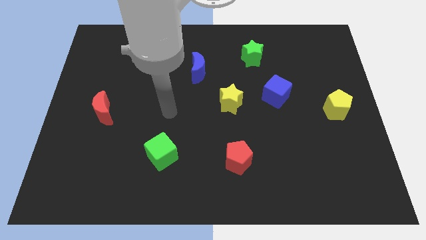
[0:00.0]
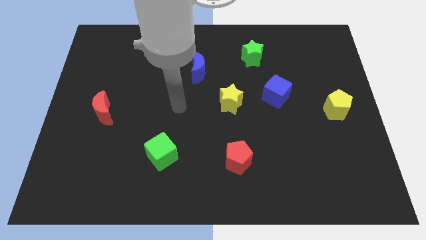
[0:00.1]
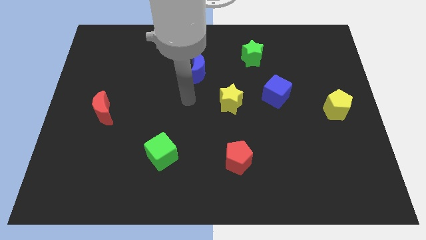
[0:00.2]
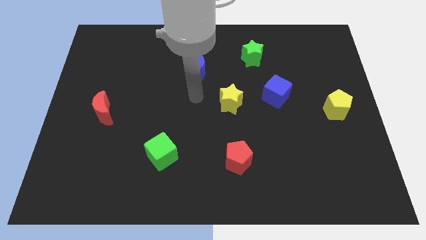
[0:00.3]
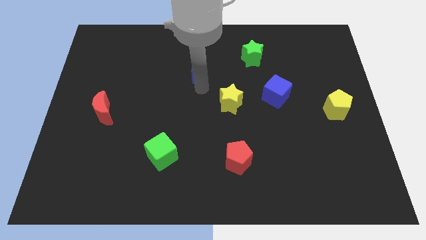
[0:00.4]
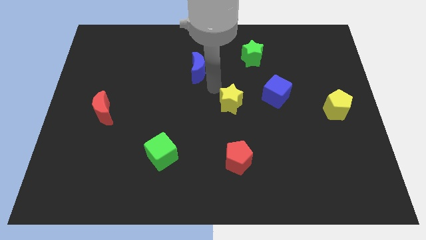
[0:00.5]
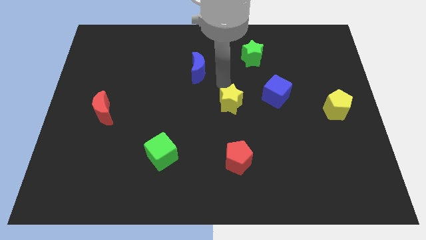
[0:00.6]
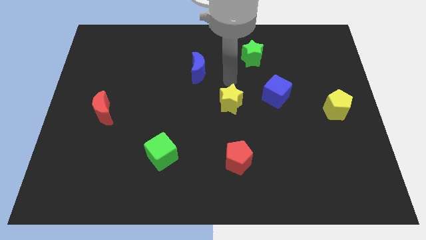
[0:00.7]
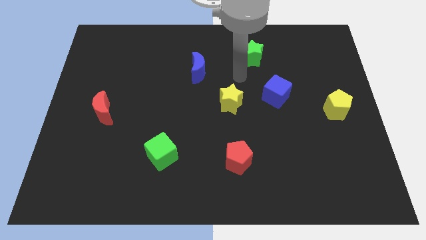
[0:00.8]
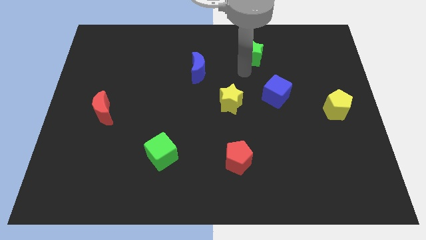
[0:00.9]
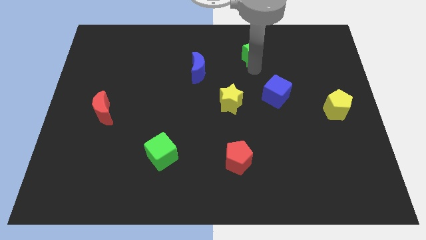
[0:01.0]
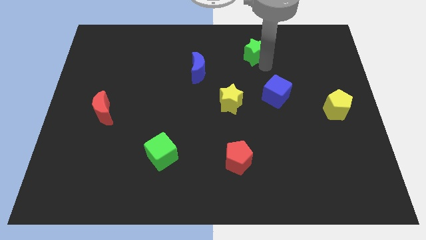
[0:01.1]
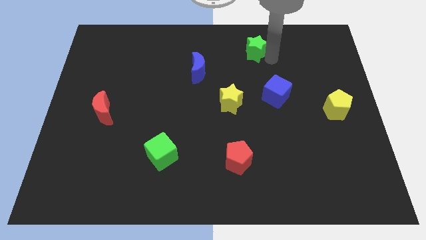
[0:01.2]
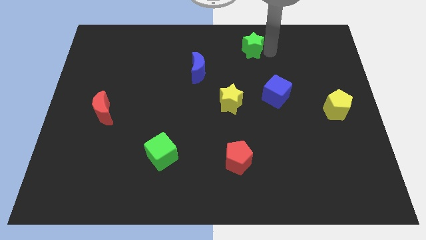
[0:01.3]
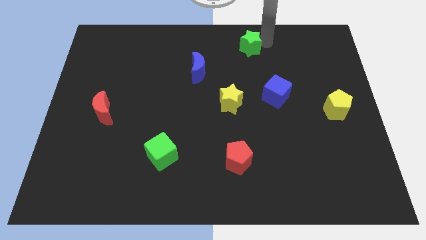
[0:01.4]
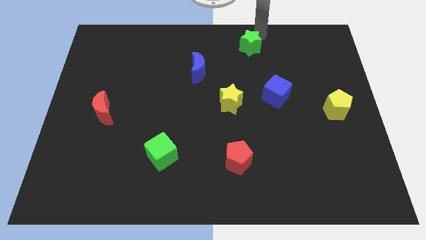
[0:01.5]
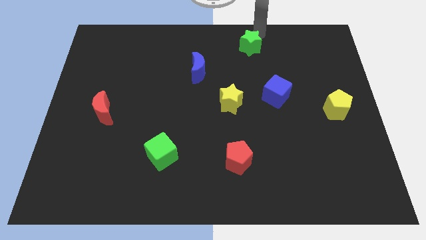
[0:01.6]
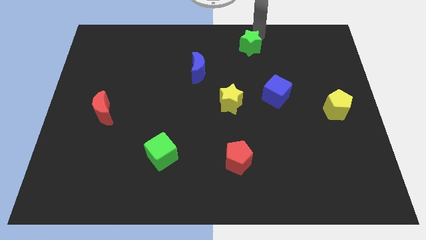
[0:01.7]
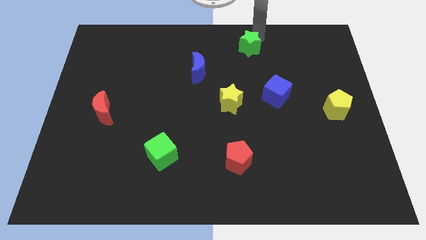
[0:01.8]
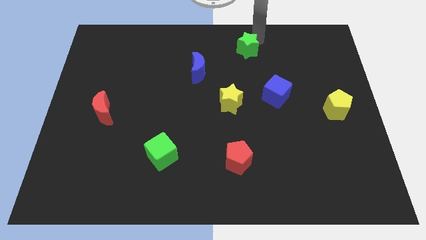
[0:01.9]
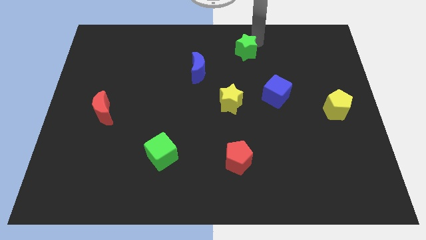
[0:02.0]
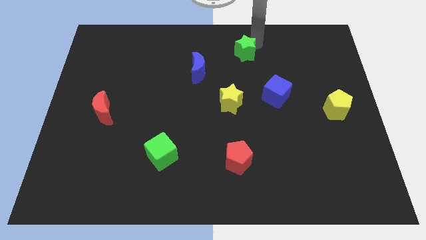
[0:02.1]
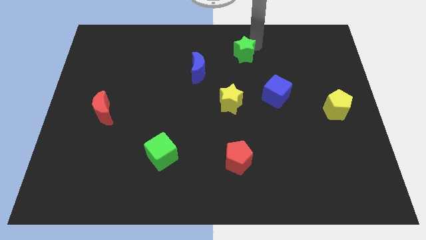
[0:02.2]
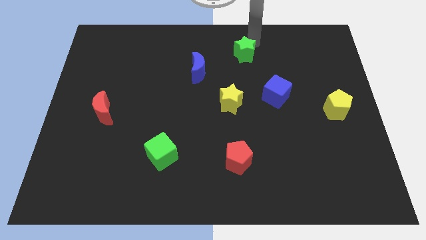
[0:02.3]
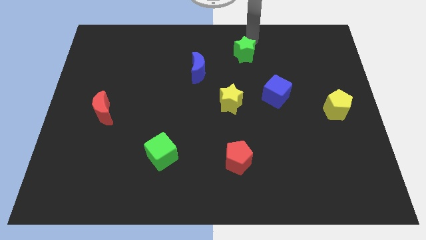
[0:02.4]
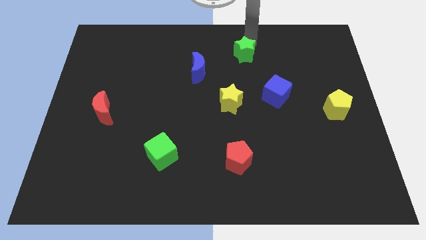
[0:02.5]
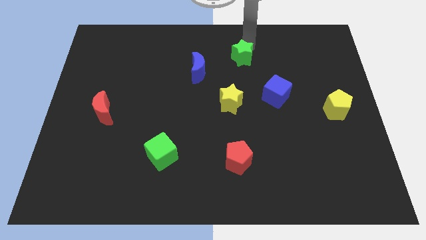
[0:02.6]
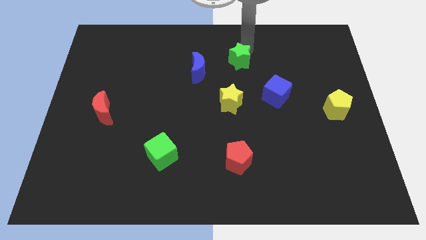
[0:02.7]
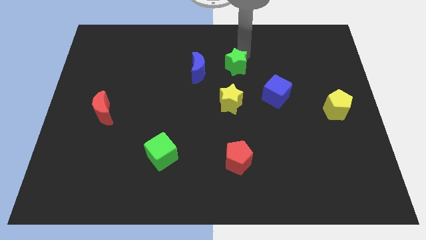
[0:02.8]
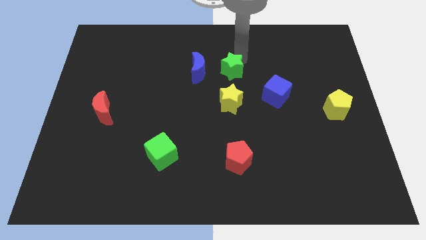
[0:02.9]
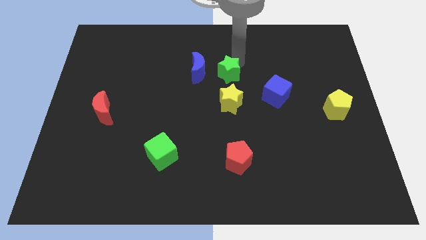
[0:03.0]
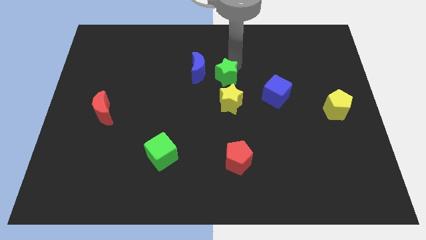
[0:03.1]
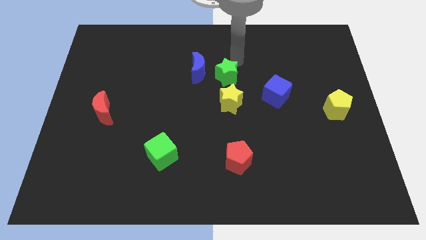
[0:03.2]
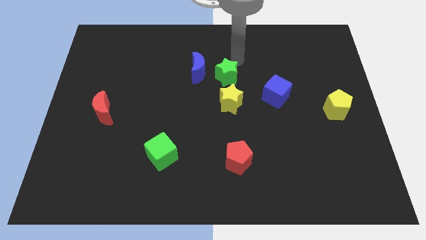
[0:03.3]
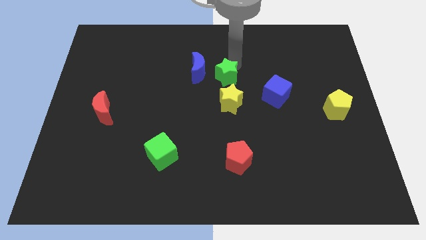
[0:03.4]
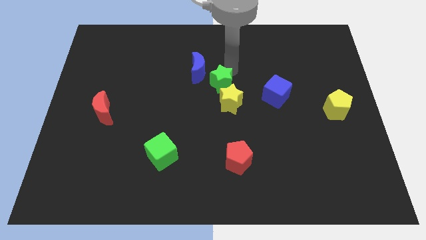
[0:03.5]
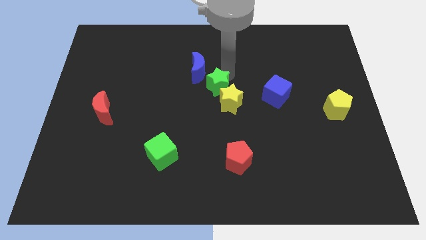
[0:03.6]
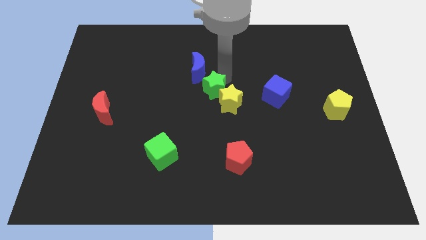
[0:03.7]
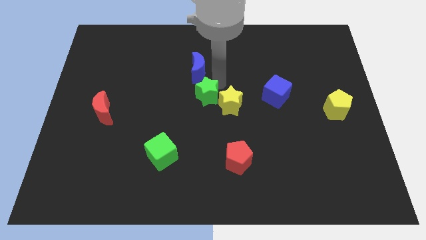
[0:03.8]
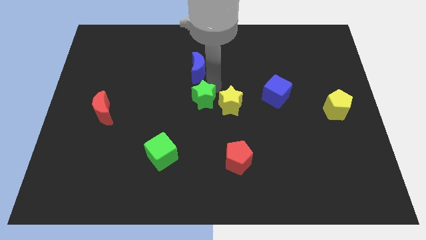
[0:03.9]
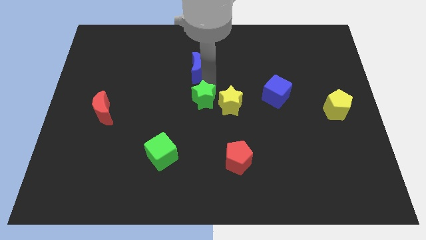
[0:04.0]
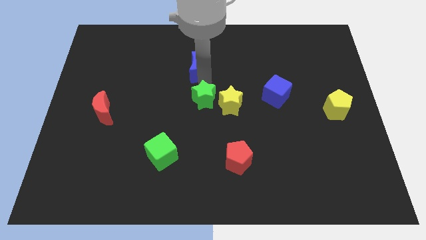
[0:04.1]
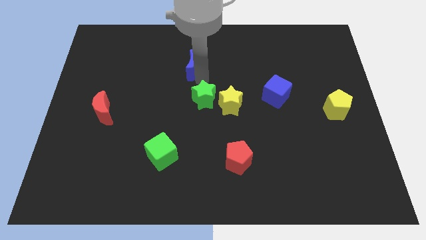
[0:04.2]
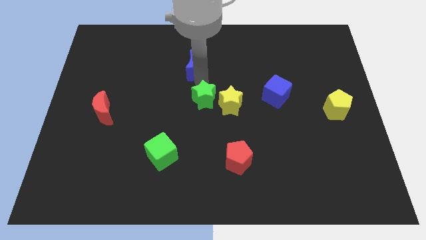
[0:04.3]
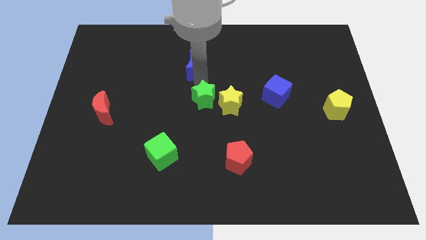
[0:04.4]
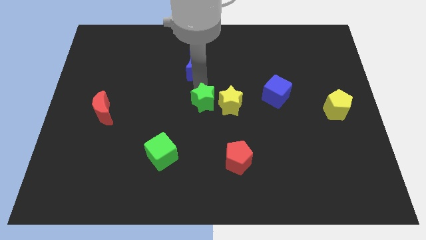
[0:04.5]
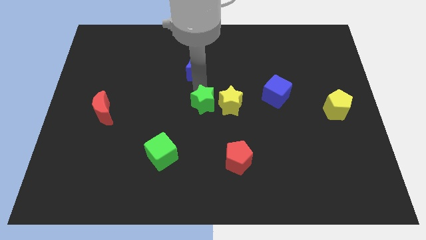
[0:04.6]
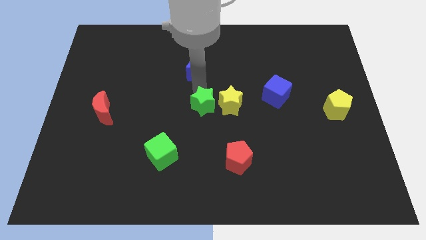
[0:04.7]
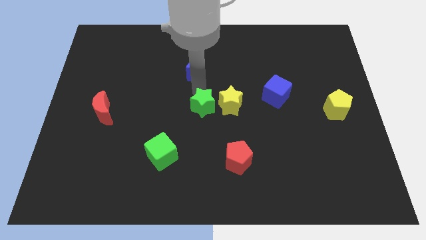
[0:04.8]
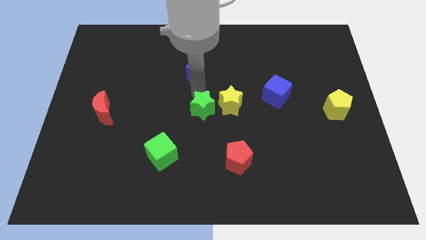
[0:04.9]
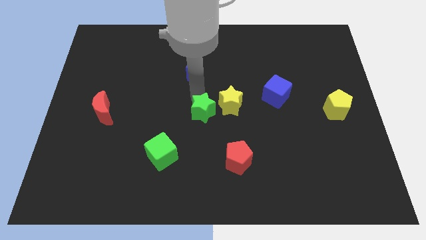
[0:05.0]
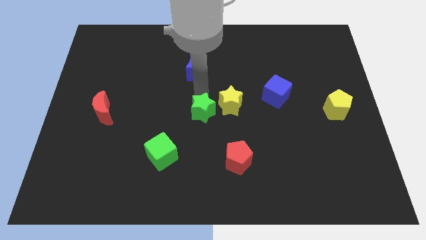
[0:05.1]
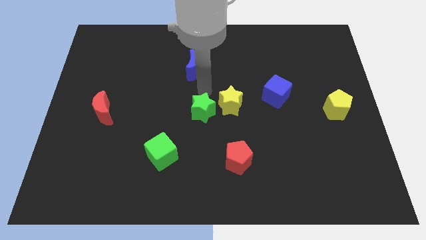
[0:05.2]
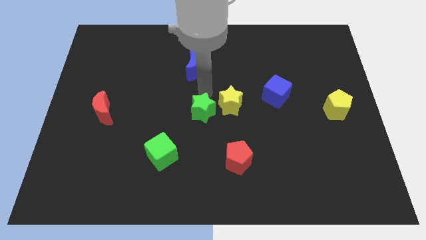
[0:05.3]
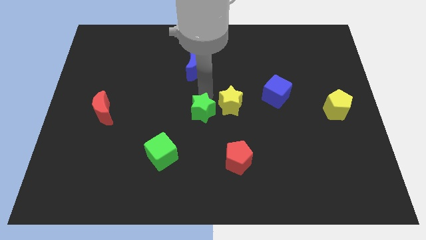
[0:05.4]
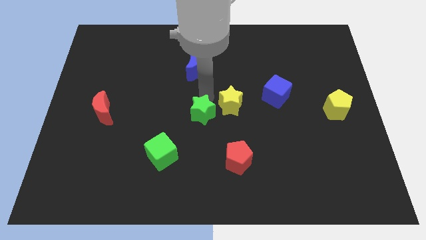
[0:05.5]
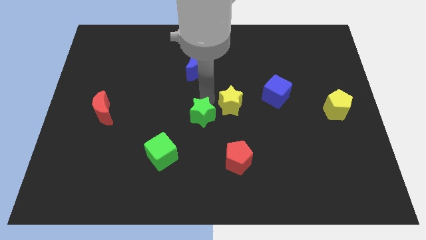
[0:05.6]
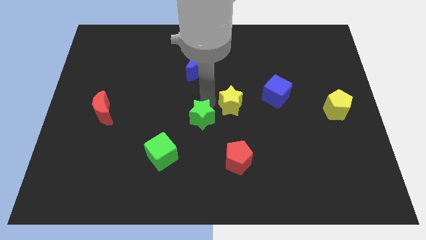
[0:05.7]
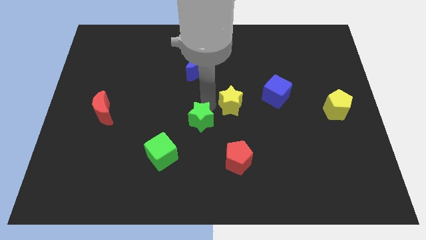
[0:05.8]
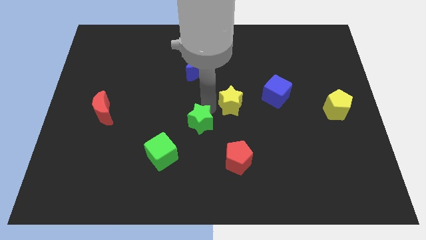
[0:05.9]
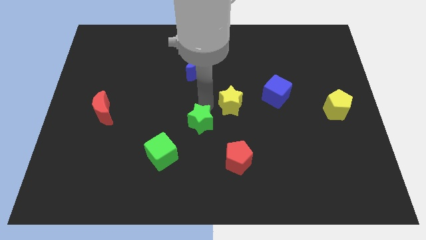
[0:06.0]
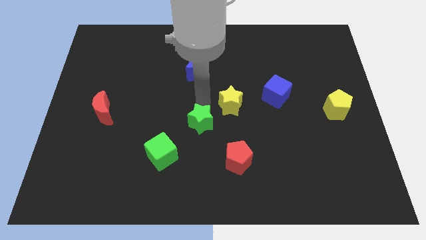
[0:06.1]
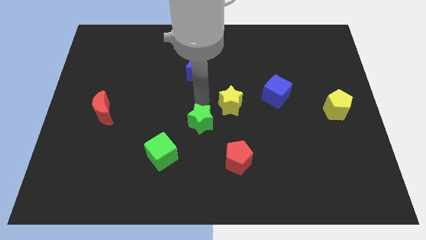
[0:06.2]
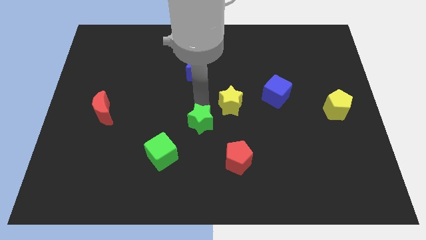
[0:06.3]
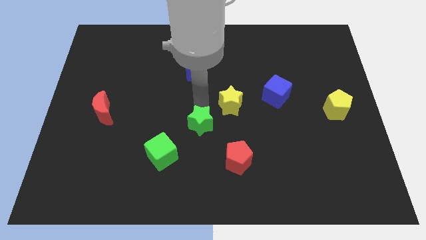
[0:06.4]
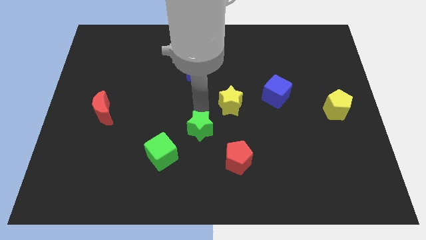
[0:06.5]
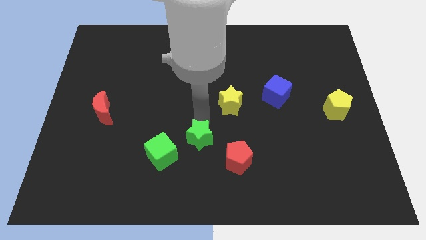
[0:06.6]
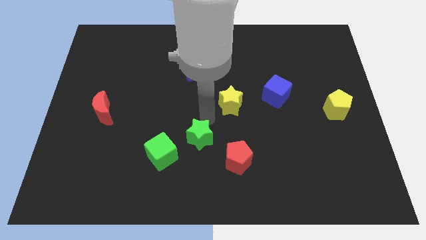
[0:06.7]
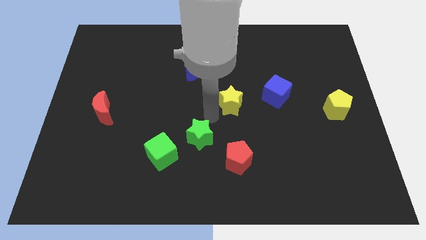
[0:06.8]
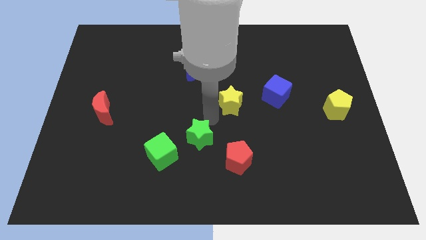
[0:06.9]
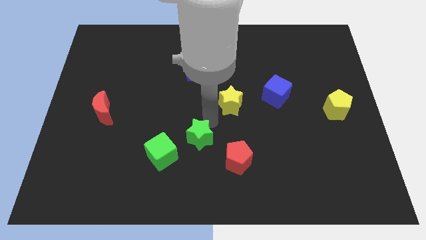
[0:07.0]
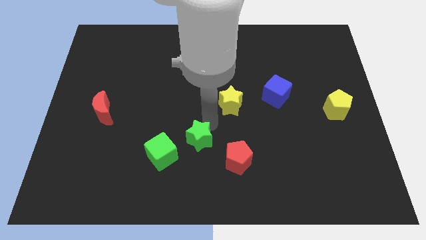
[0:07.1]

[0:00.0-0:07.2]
slide the green star to the left of the red pentagon
